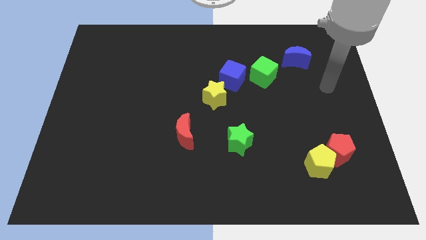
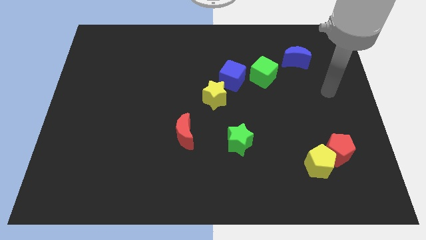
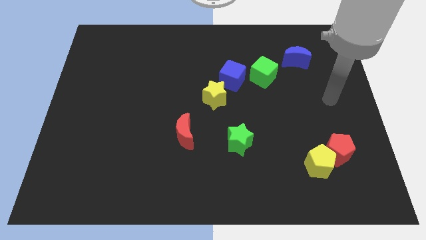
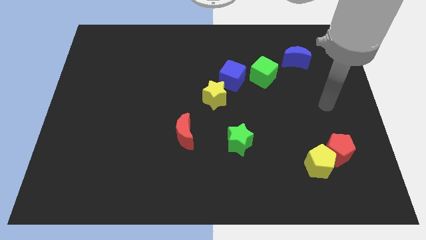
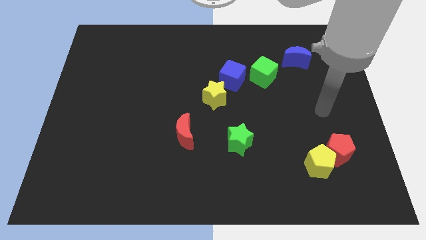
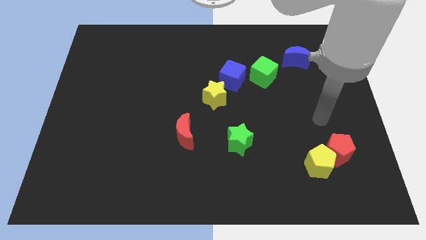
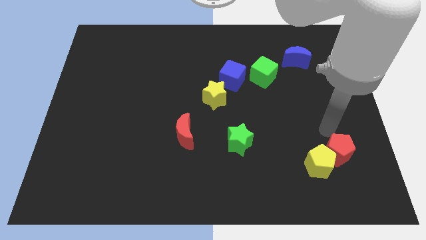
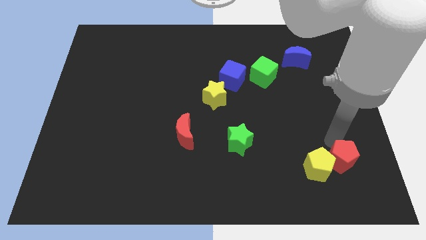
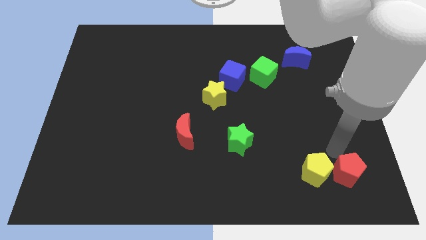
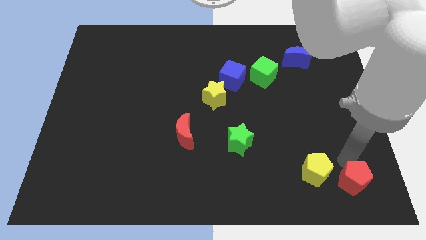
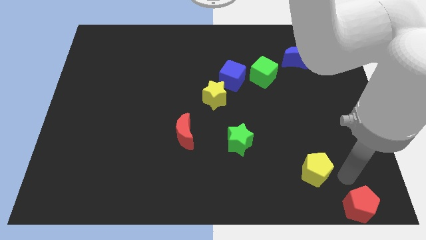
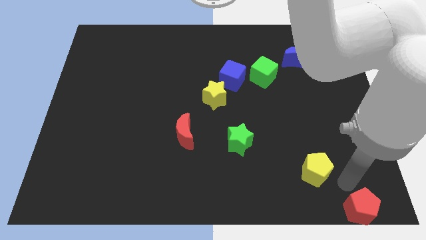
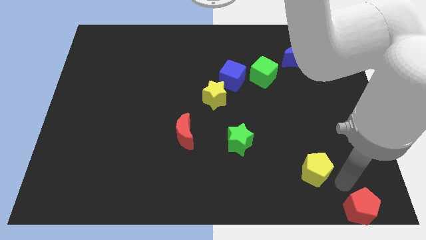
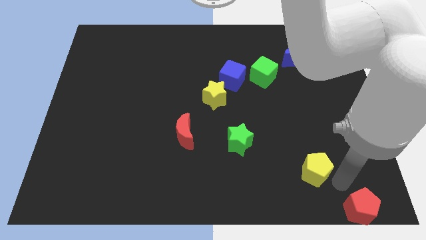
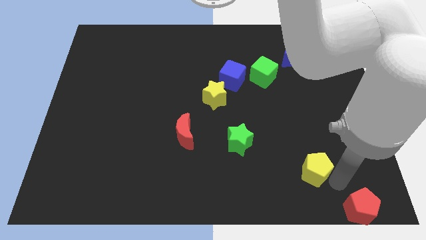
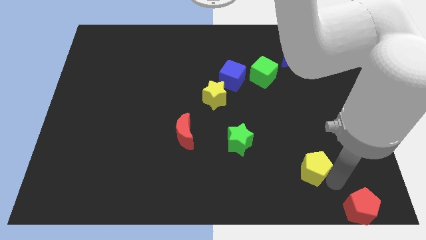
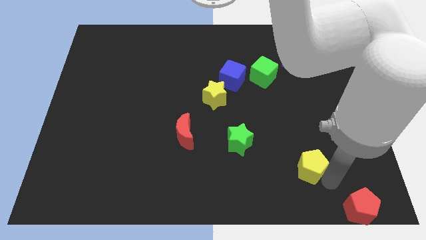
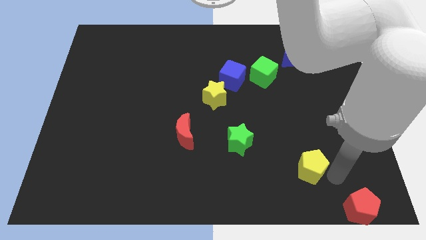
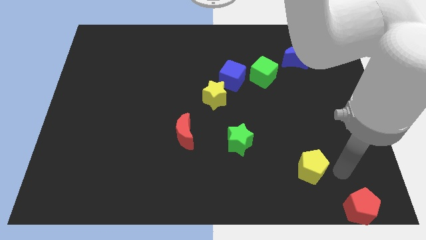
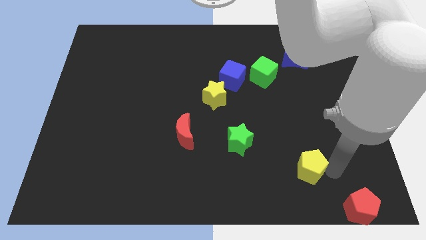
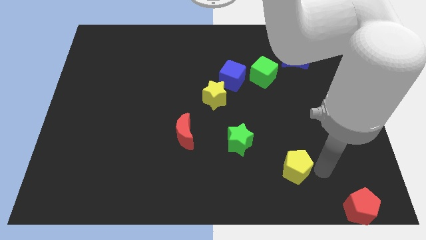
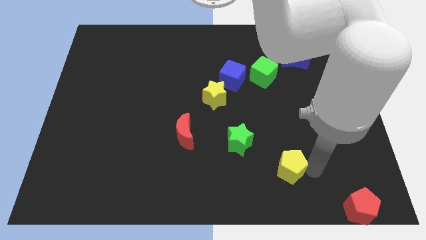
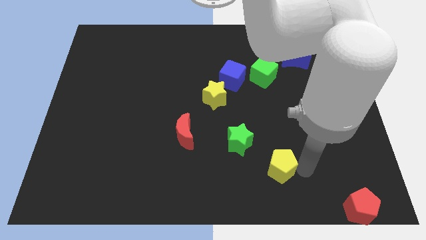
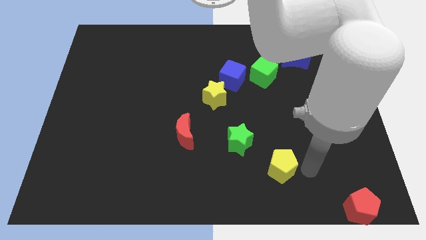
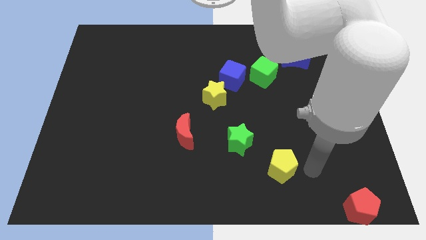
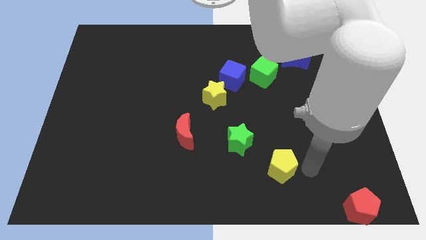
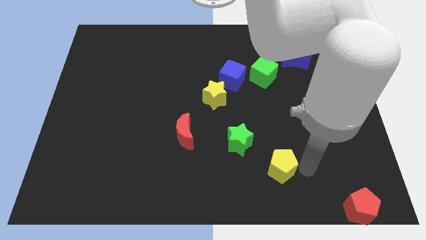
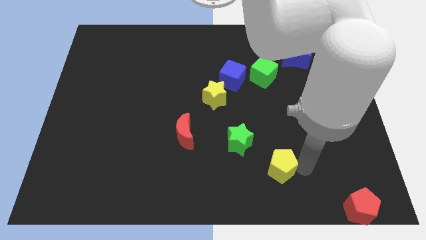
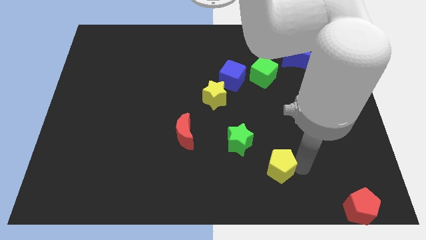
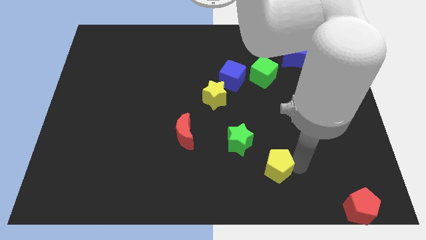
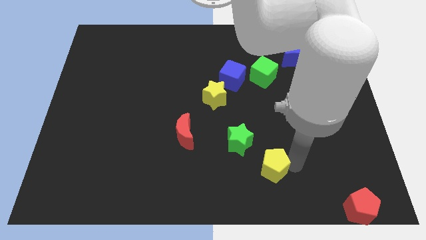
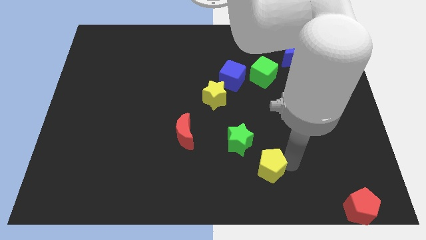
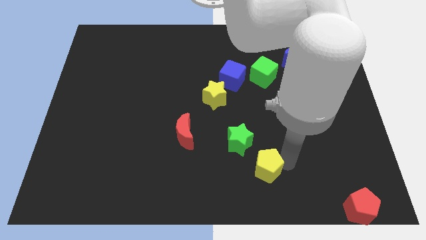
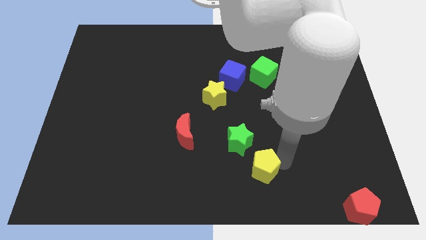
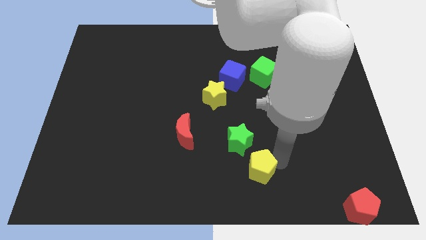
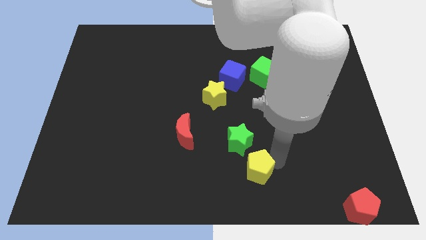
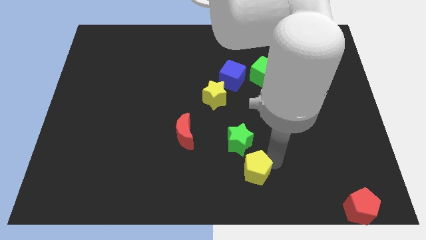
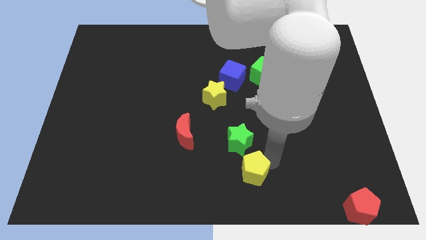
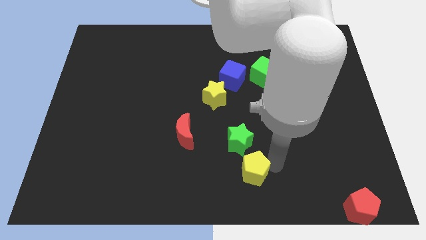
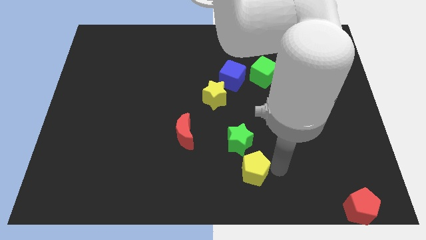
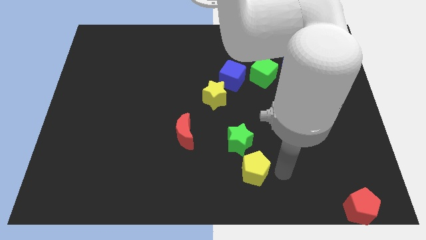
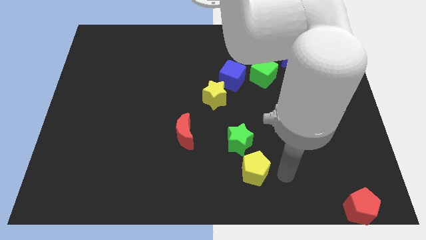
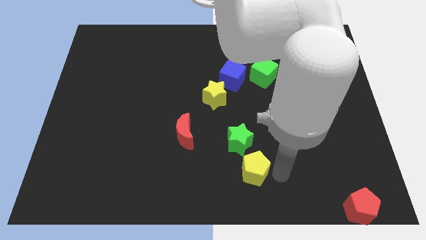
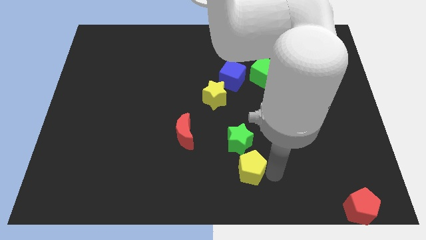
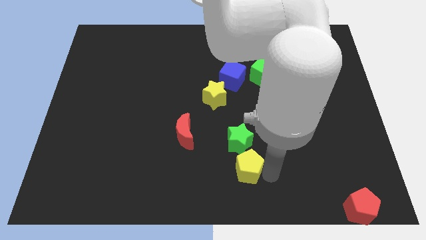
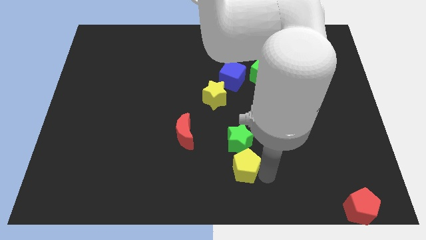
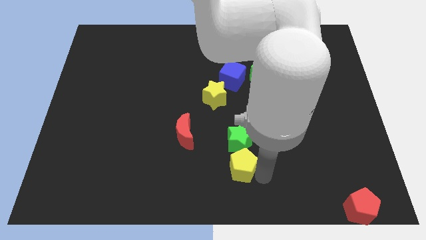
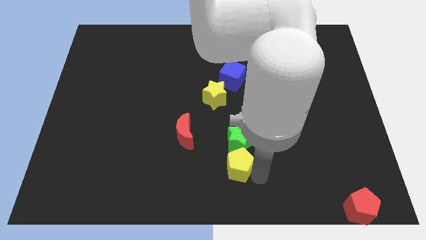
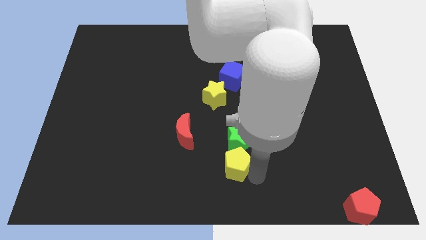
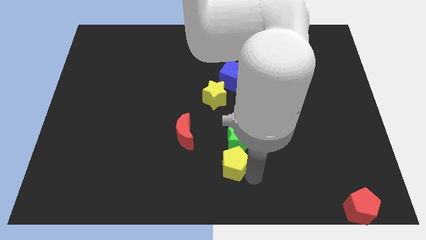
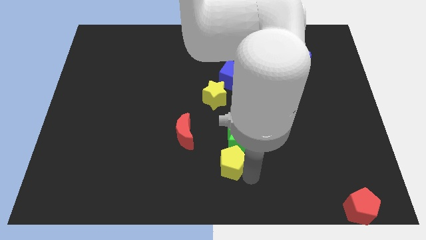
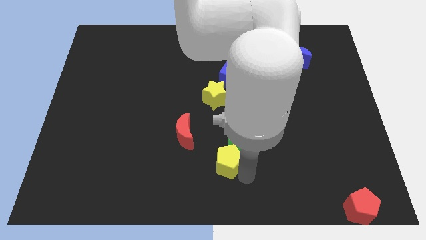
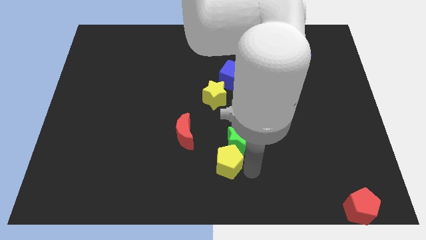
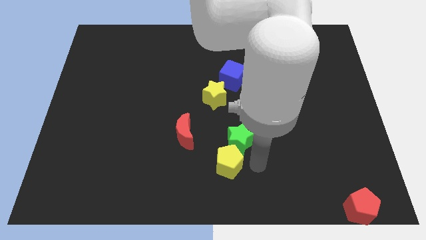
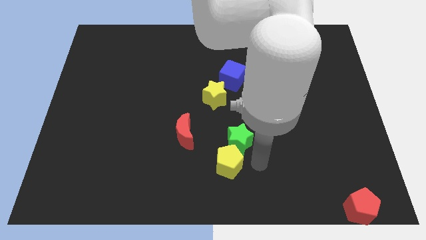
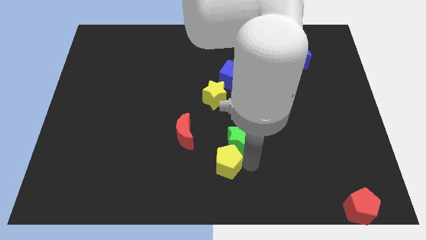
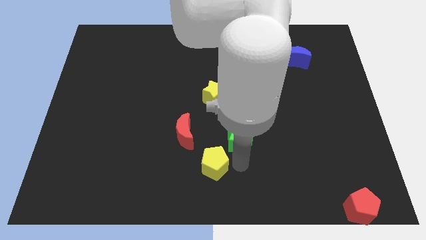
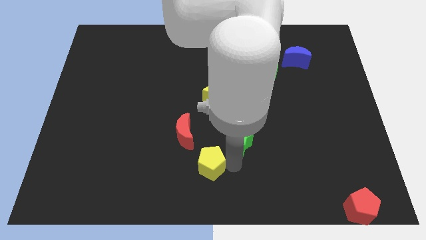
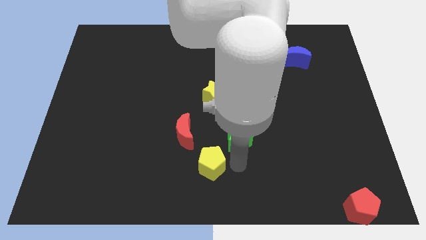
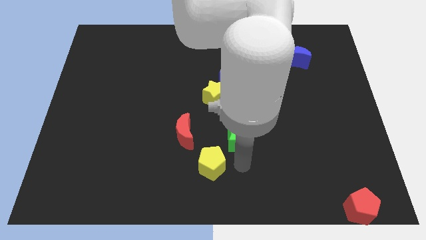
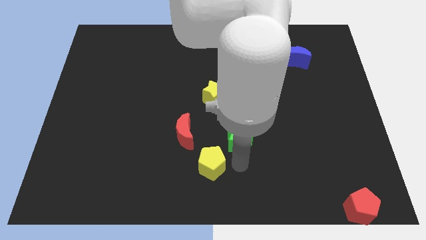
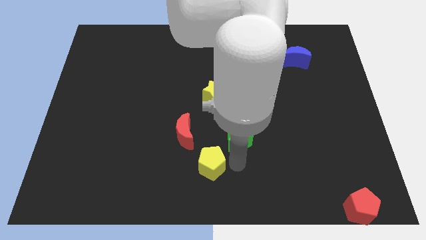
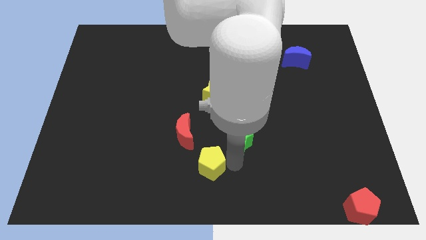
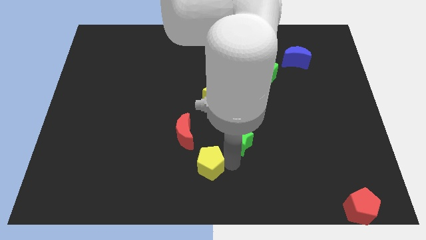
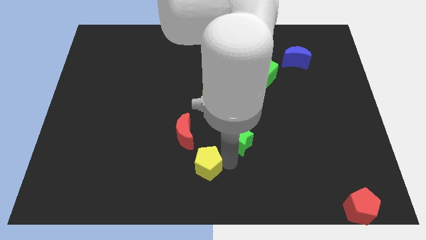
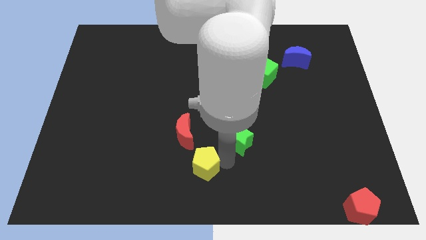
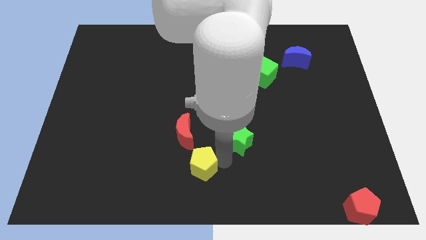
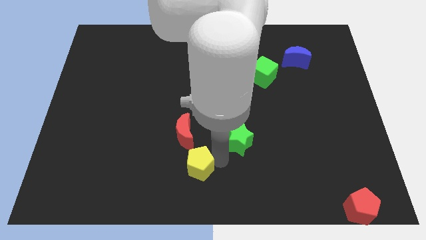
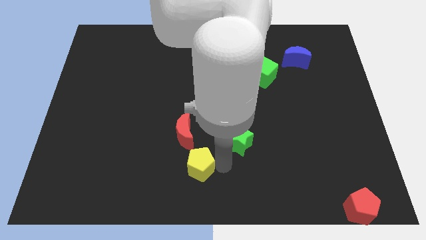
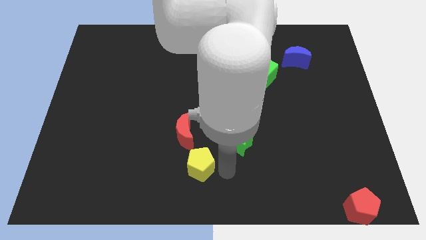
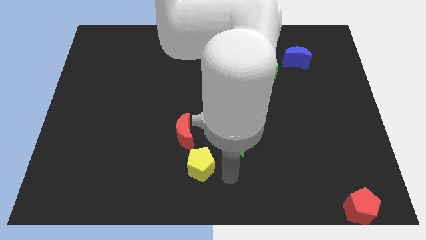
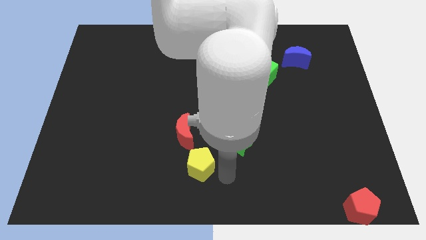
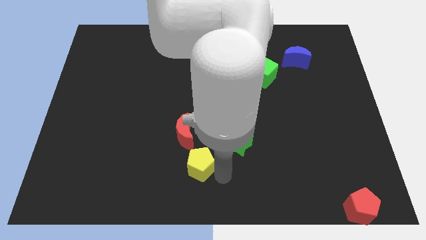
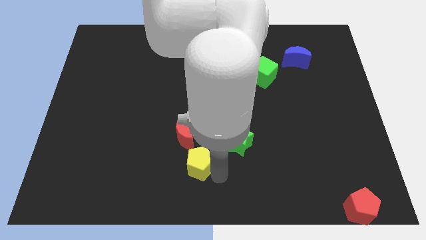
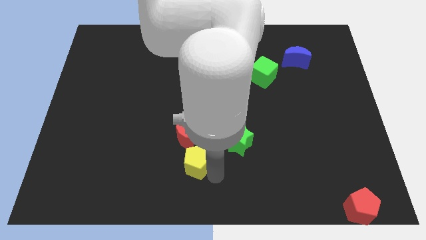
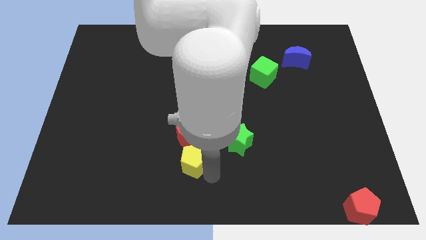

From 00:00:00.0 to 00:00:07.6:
put the yellow pentagon to the left of the green star
